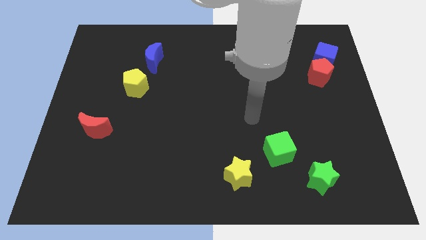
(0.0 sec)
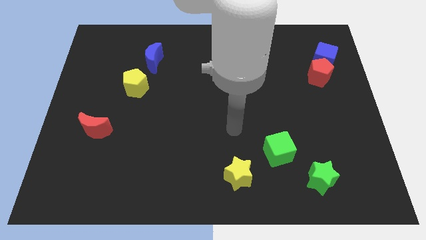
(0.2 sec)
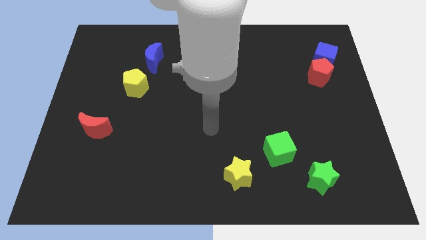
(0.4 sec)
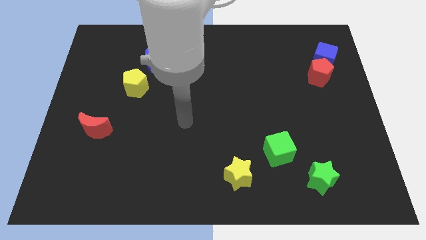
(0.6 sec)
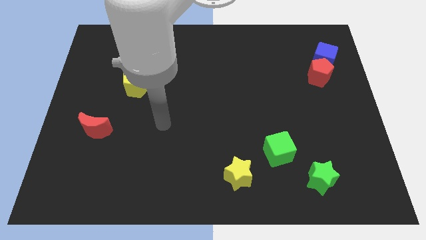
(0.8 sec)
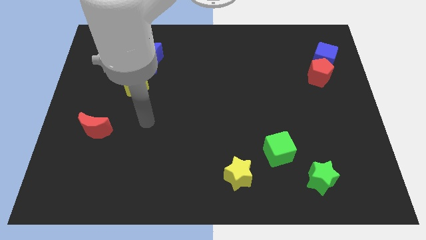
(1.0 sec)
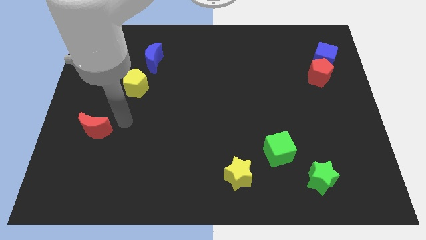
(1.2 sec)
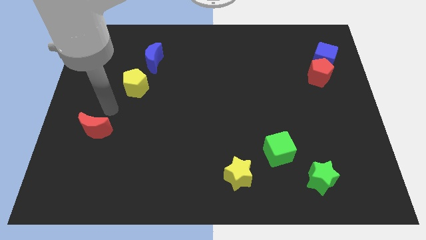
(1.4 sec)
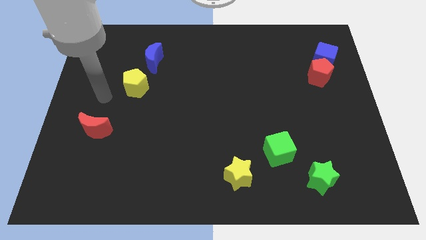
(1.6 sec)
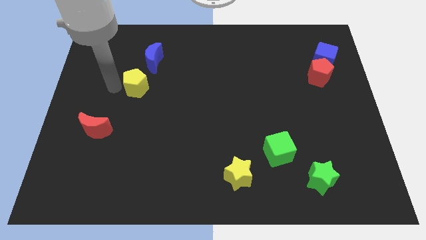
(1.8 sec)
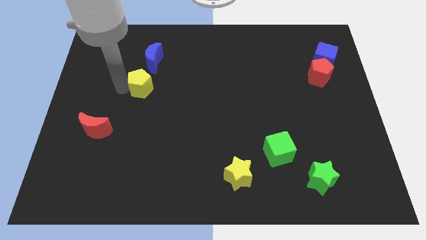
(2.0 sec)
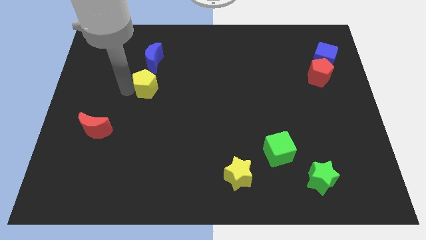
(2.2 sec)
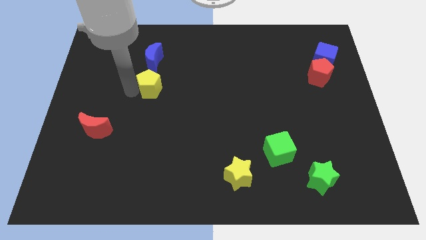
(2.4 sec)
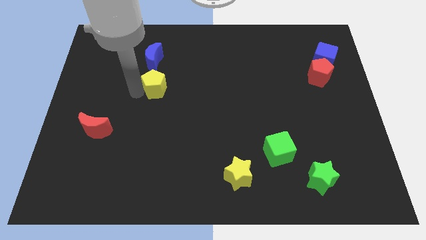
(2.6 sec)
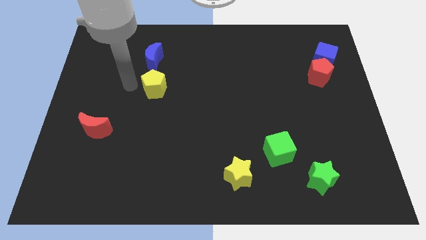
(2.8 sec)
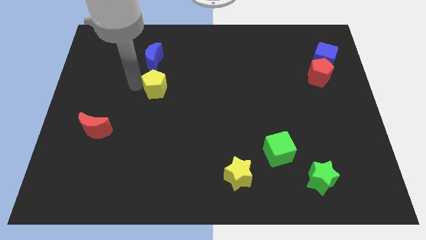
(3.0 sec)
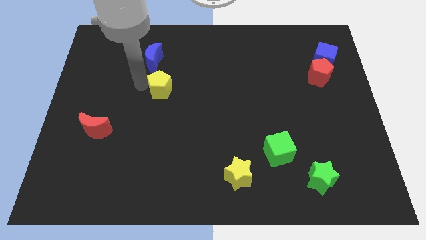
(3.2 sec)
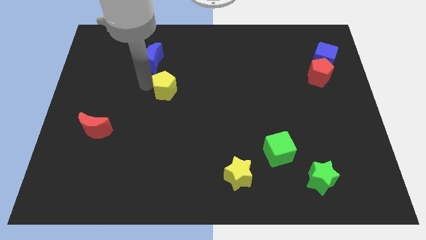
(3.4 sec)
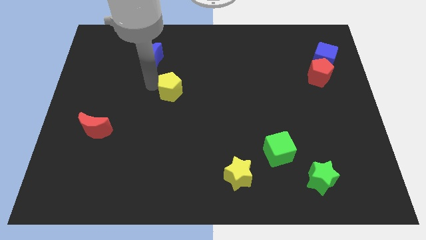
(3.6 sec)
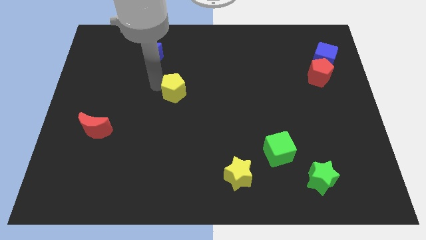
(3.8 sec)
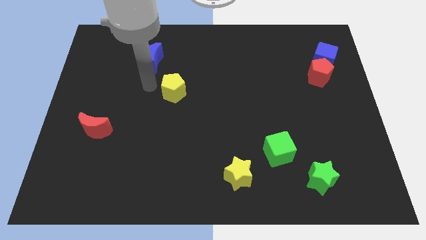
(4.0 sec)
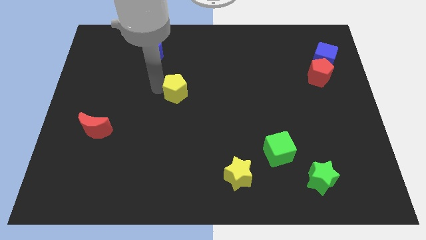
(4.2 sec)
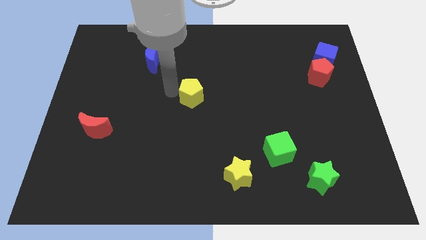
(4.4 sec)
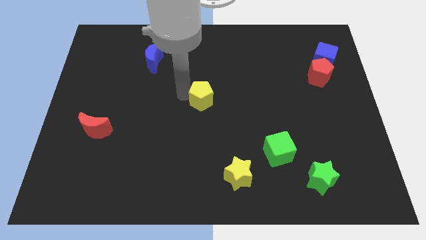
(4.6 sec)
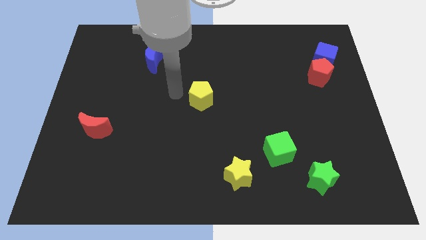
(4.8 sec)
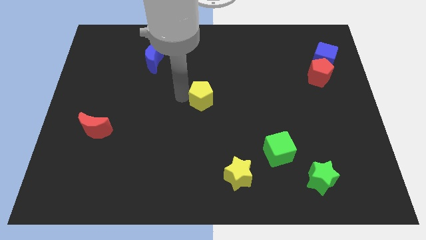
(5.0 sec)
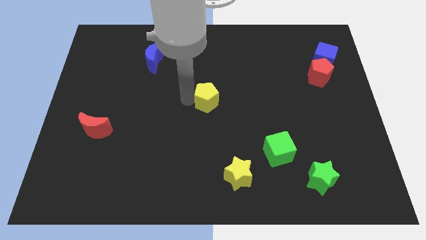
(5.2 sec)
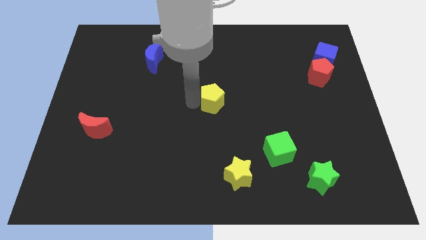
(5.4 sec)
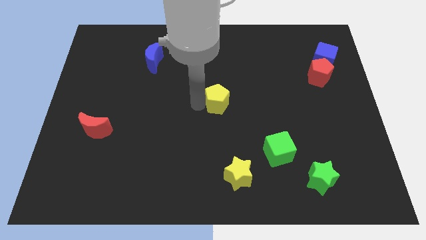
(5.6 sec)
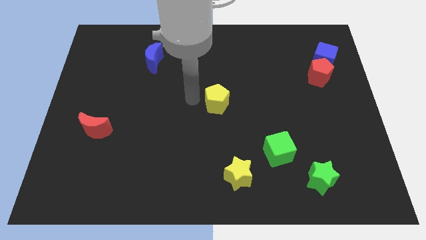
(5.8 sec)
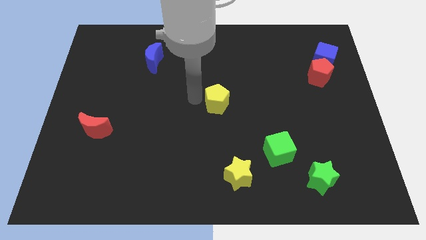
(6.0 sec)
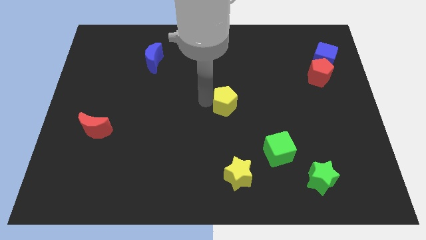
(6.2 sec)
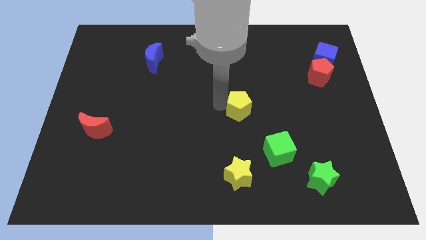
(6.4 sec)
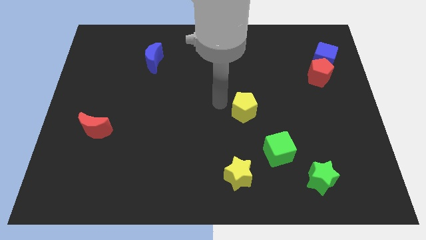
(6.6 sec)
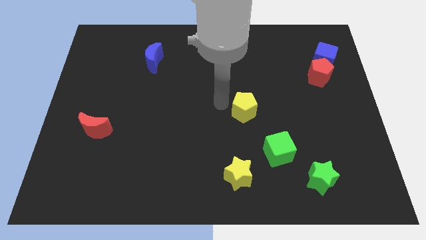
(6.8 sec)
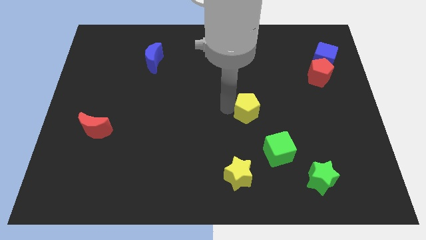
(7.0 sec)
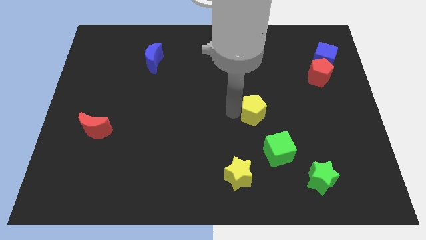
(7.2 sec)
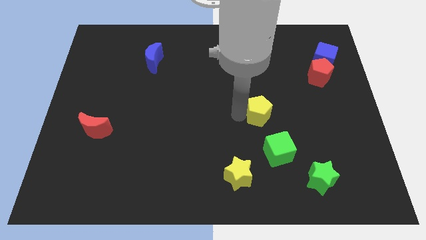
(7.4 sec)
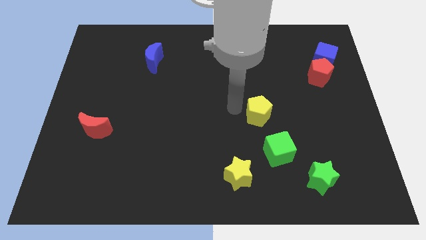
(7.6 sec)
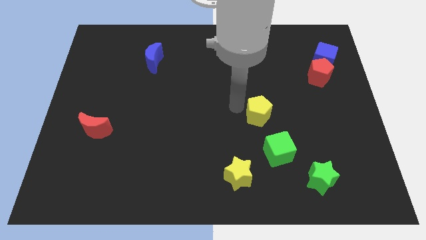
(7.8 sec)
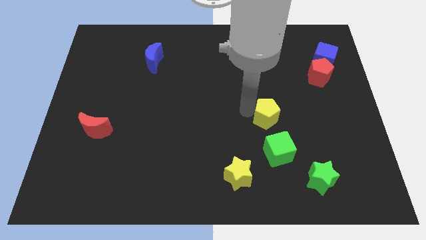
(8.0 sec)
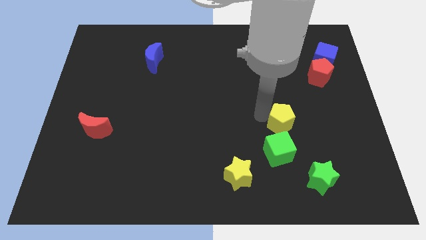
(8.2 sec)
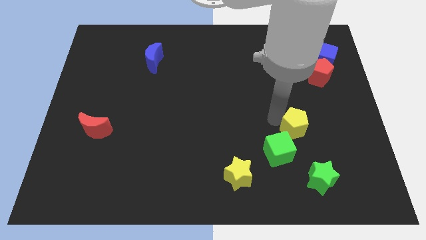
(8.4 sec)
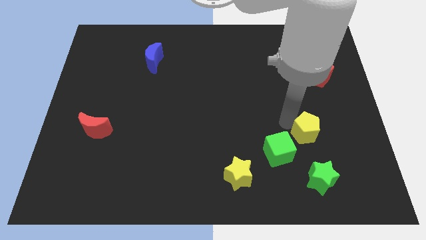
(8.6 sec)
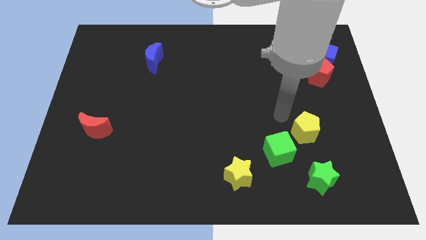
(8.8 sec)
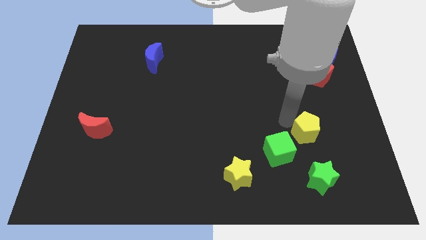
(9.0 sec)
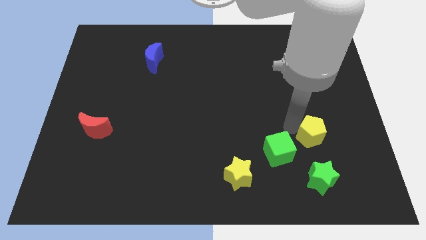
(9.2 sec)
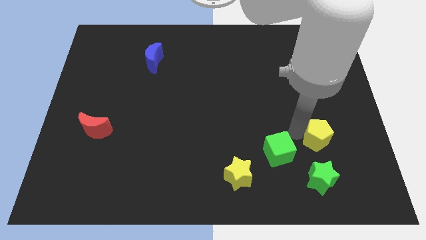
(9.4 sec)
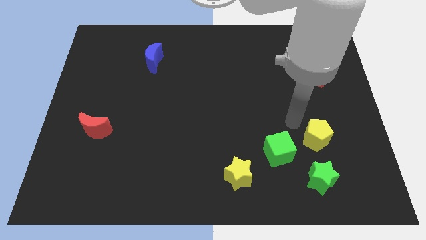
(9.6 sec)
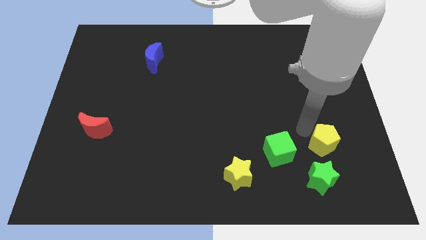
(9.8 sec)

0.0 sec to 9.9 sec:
slide the yellow pentagon diagonally up and to the right of the green star

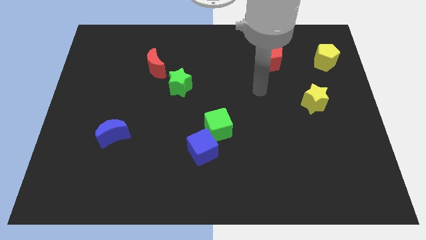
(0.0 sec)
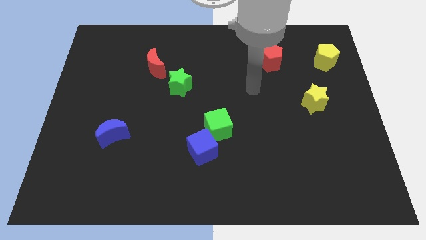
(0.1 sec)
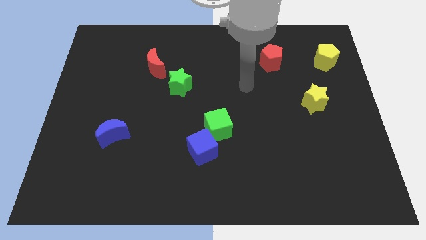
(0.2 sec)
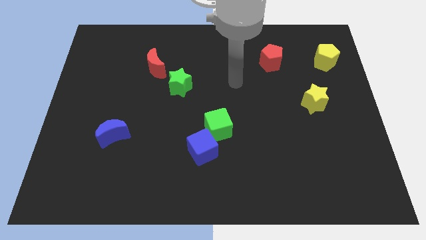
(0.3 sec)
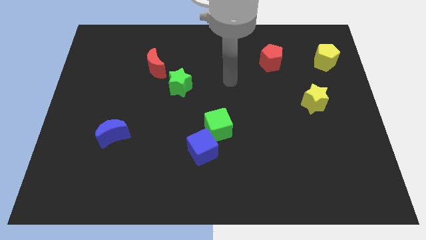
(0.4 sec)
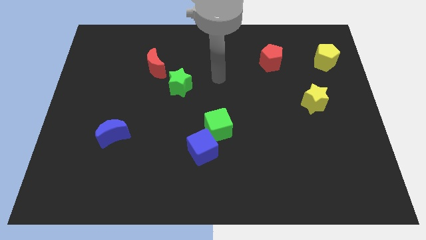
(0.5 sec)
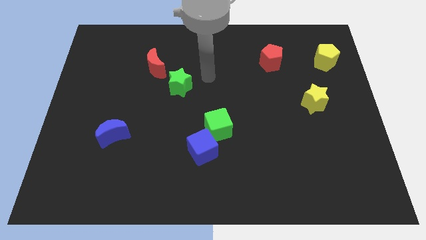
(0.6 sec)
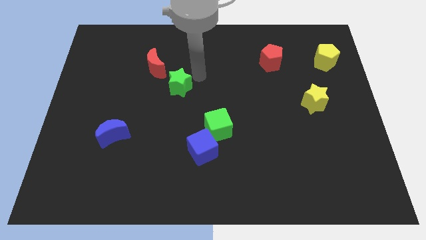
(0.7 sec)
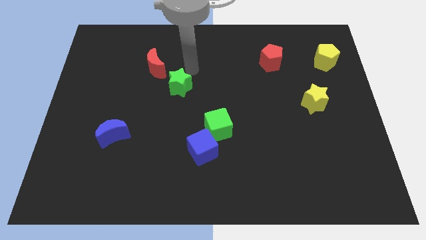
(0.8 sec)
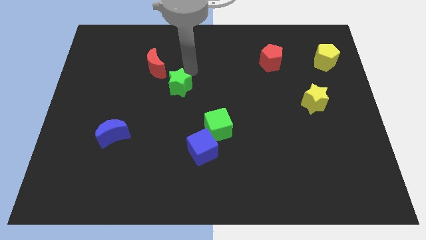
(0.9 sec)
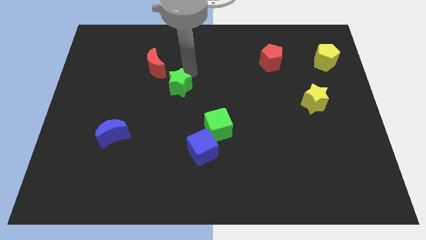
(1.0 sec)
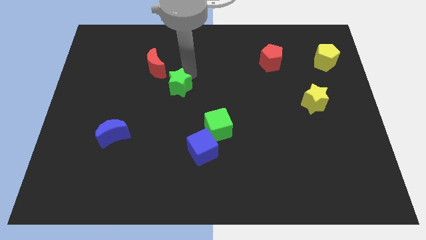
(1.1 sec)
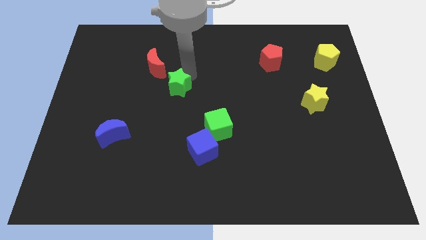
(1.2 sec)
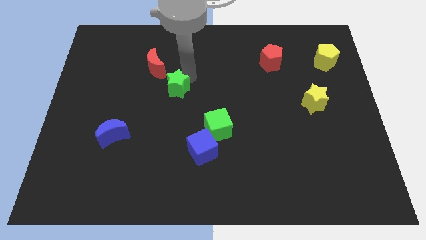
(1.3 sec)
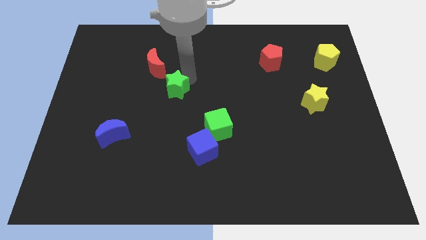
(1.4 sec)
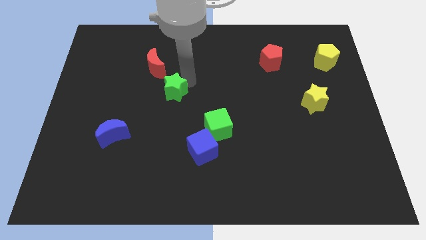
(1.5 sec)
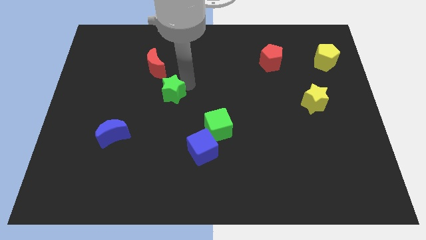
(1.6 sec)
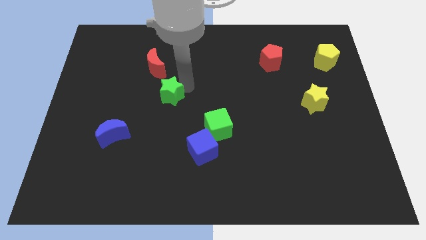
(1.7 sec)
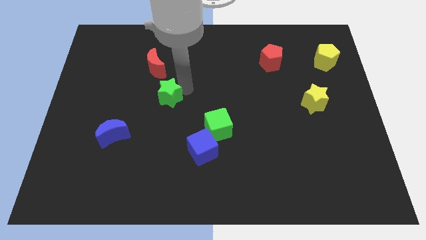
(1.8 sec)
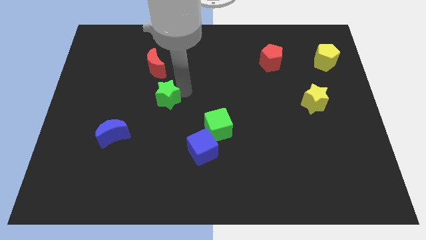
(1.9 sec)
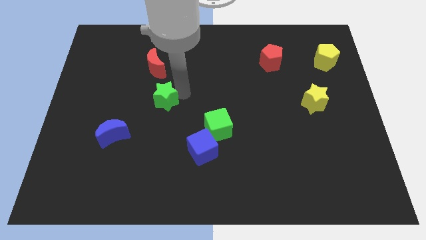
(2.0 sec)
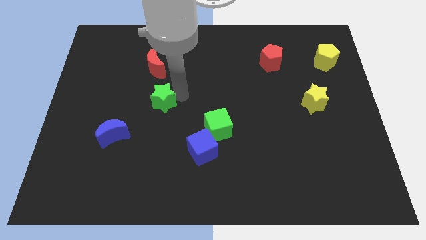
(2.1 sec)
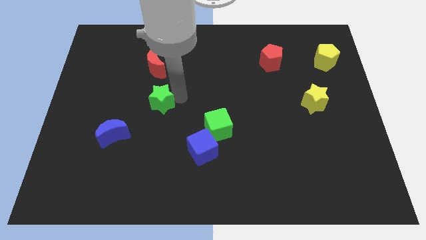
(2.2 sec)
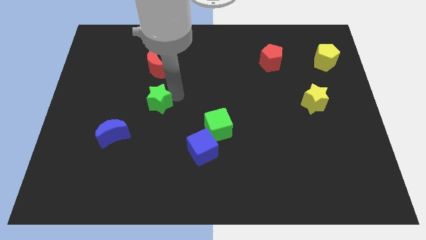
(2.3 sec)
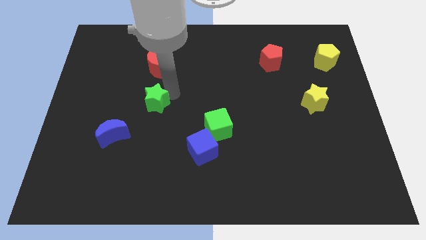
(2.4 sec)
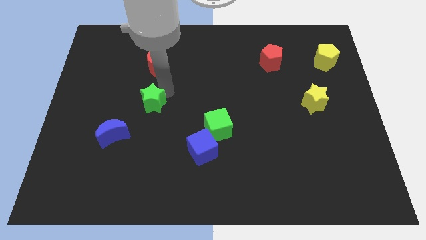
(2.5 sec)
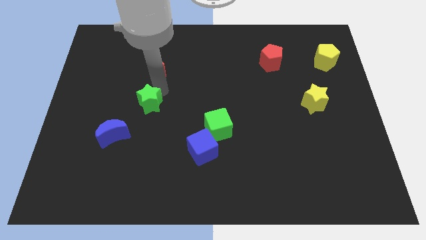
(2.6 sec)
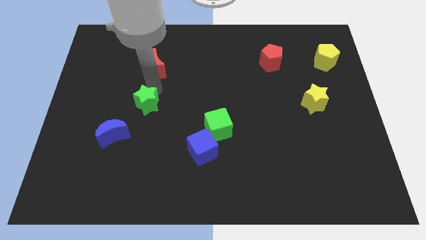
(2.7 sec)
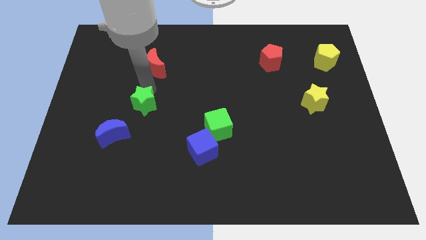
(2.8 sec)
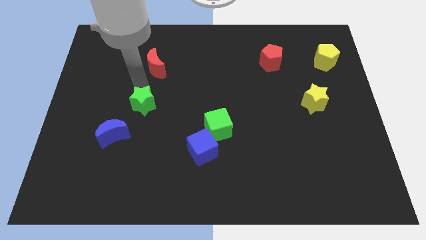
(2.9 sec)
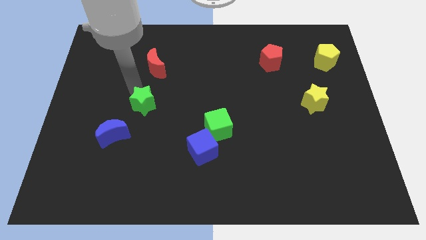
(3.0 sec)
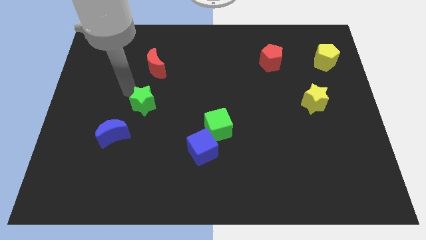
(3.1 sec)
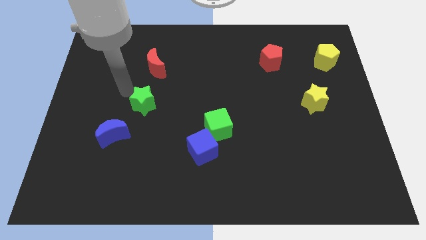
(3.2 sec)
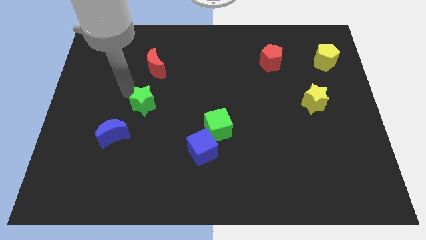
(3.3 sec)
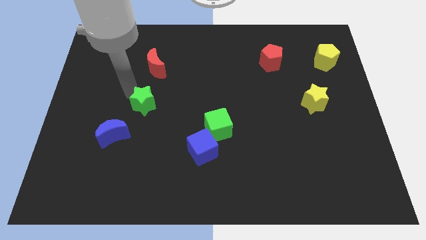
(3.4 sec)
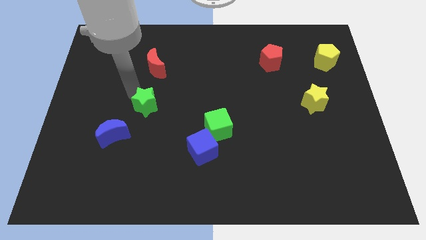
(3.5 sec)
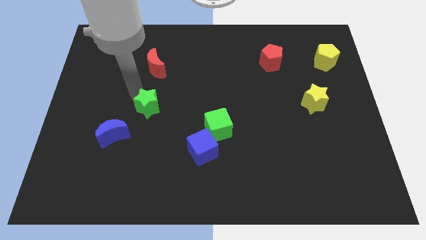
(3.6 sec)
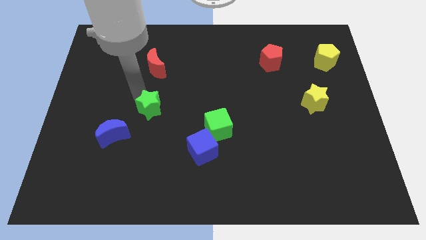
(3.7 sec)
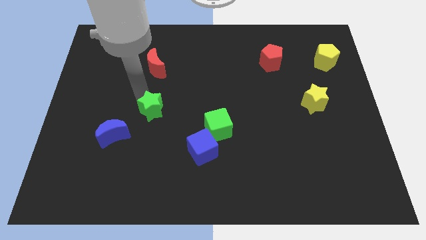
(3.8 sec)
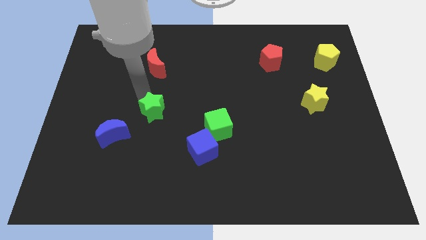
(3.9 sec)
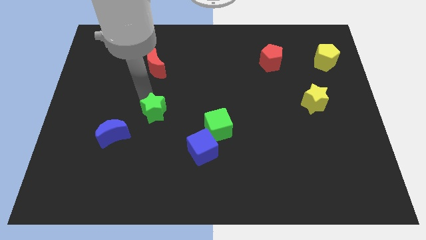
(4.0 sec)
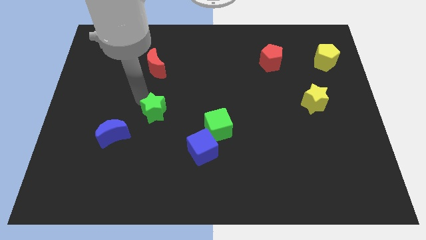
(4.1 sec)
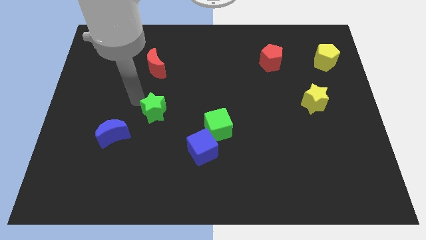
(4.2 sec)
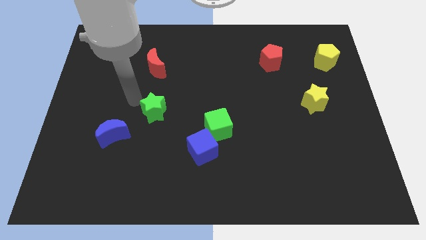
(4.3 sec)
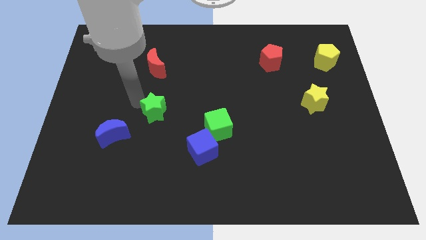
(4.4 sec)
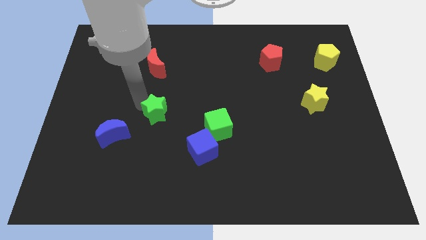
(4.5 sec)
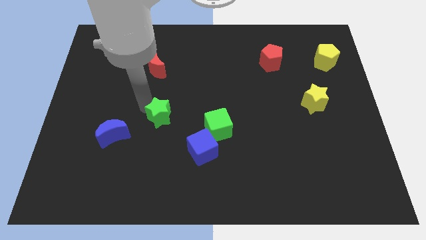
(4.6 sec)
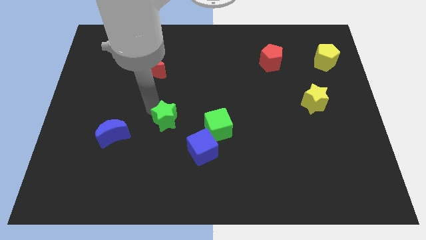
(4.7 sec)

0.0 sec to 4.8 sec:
push the green star right of the blue moon
